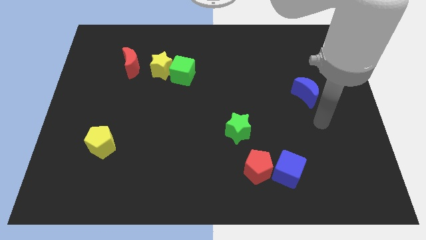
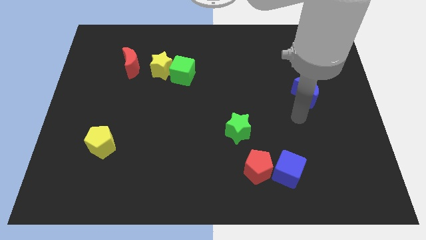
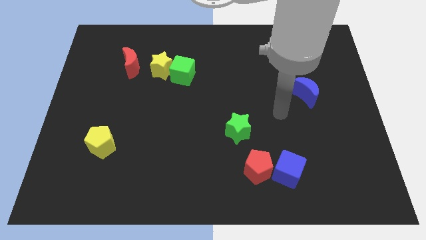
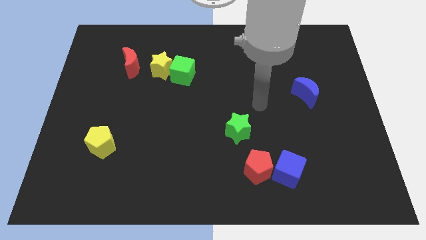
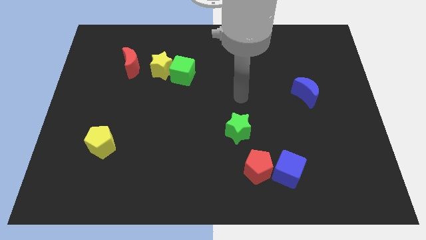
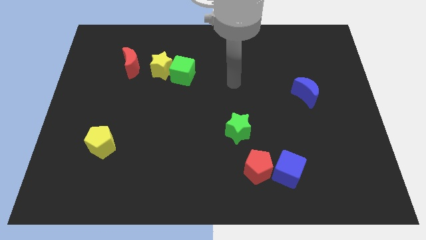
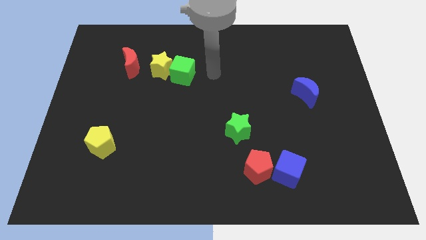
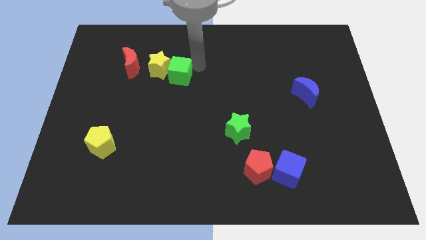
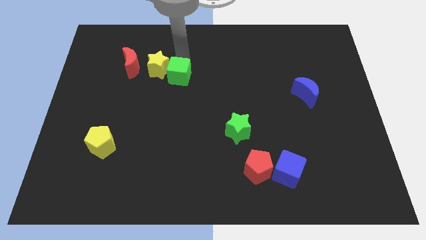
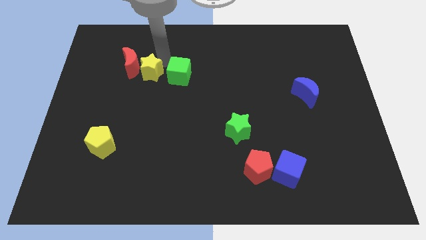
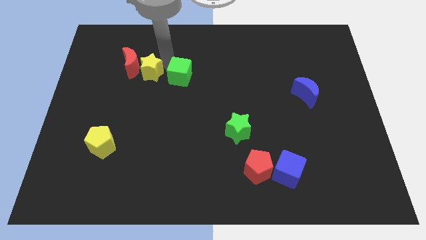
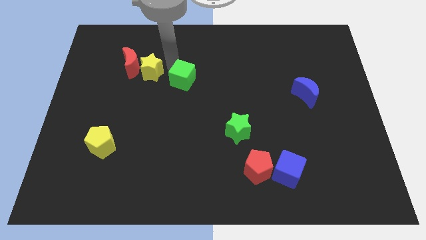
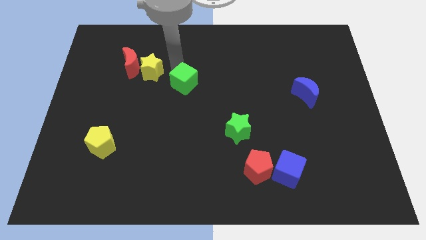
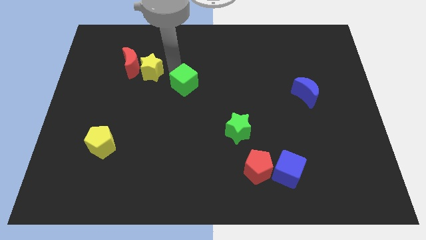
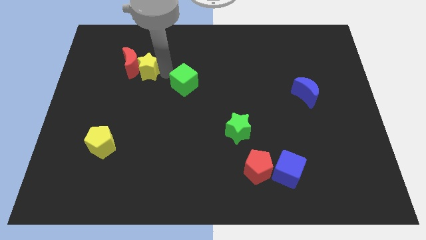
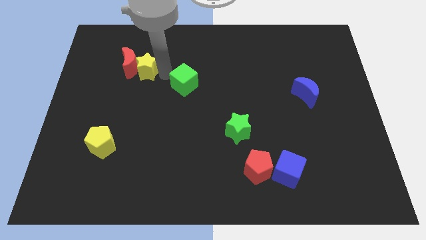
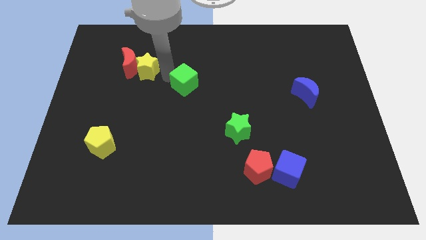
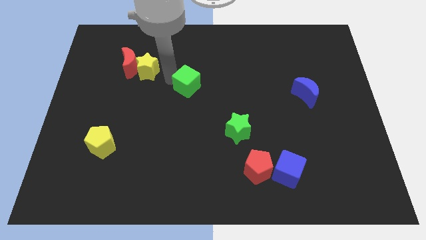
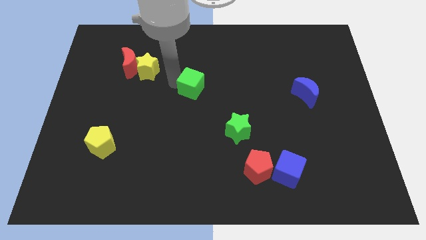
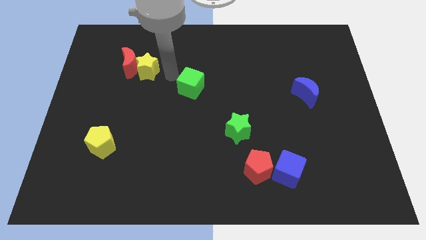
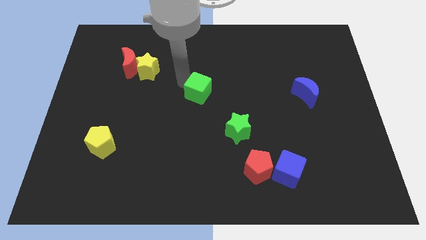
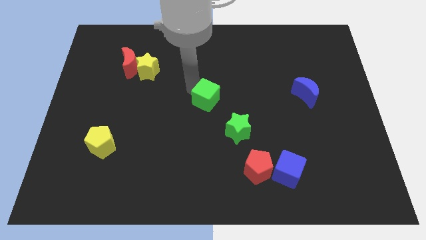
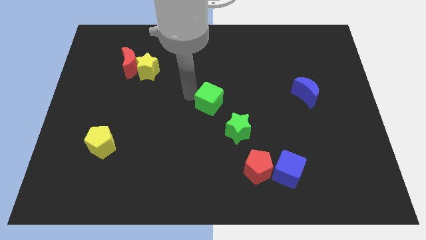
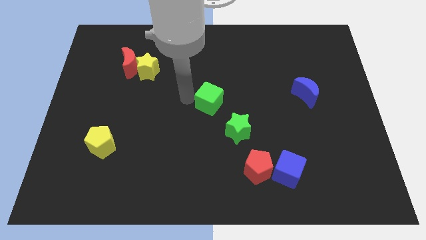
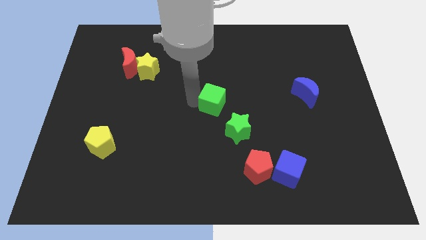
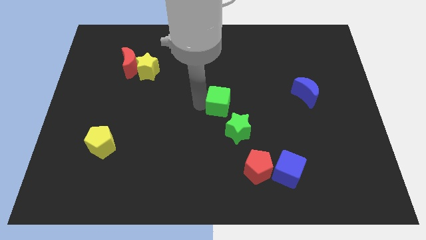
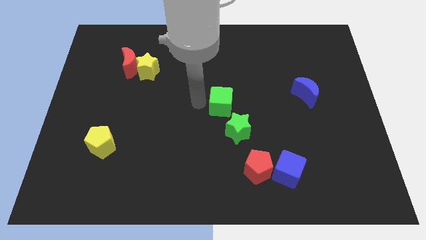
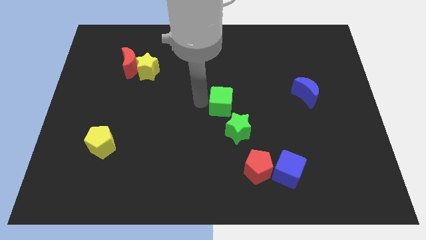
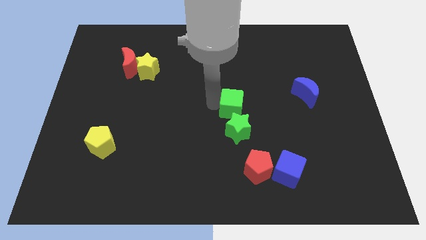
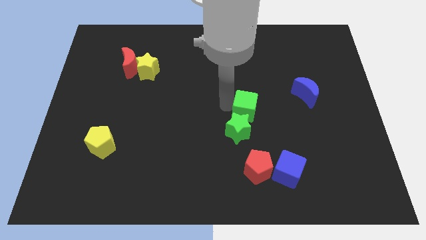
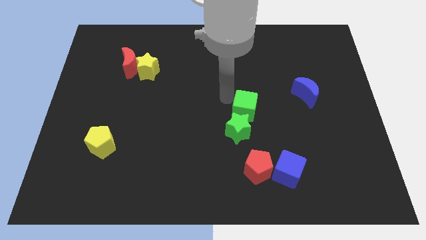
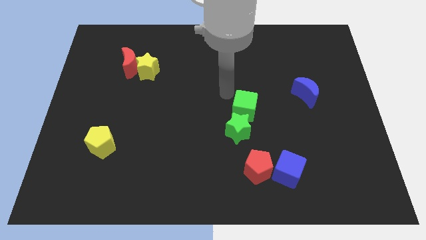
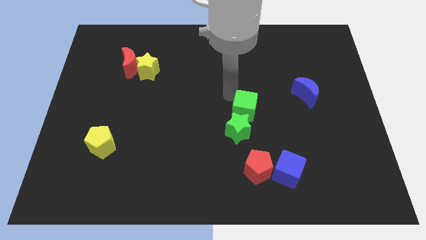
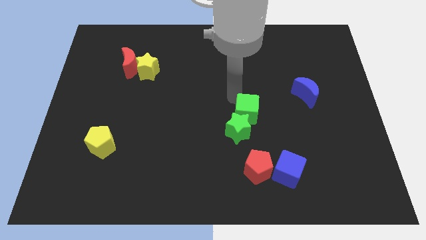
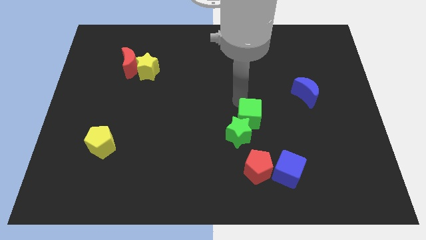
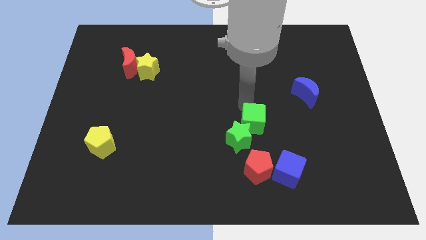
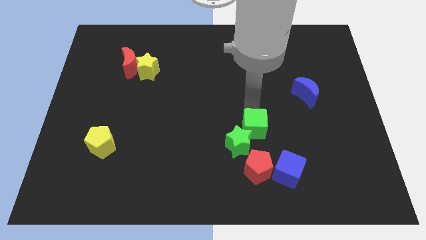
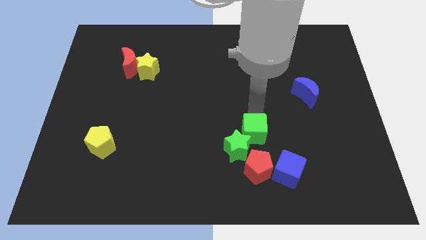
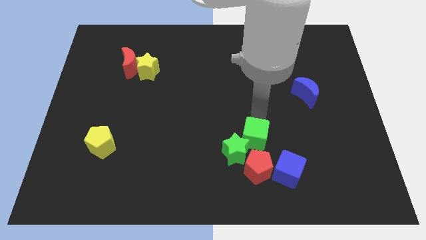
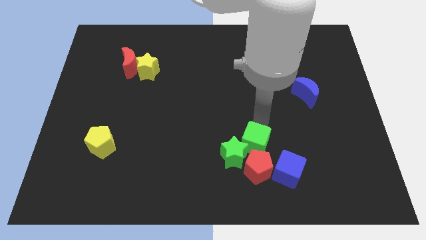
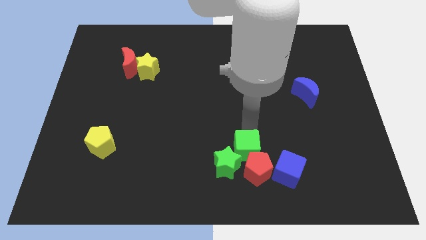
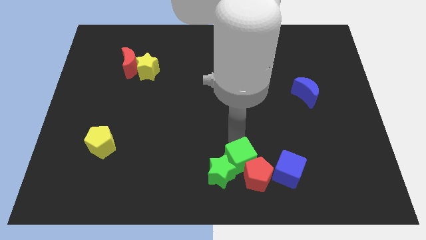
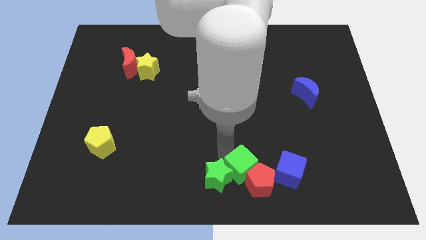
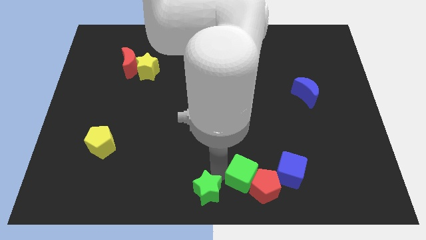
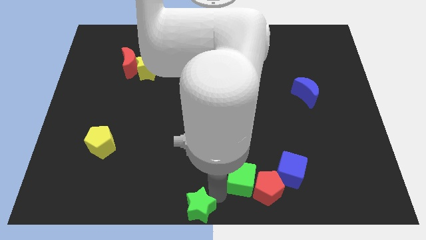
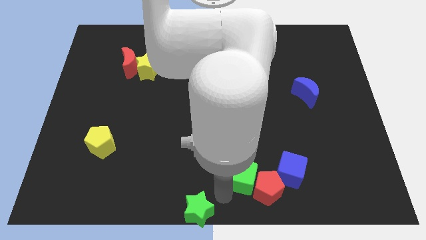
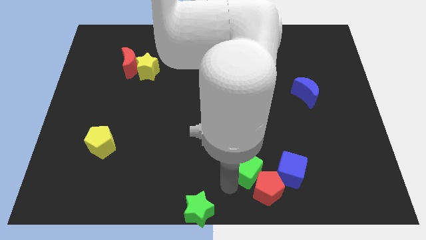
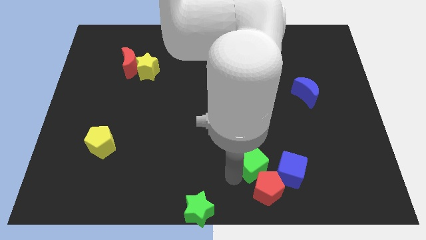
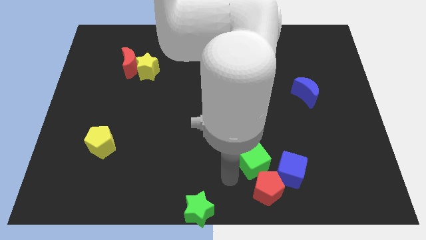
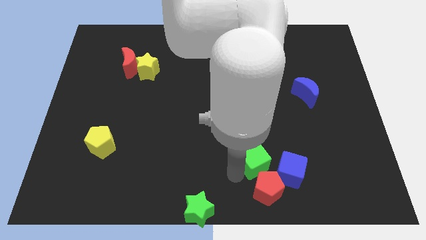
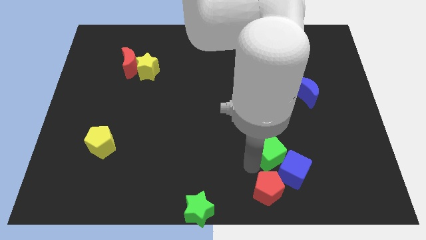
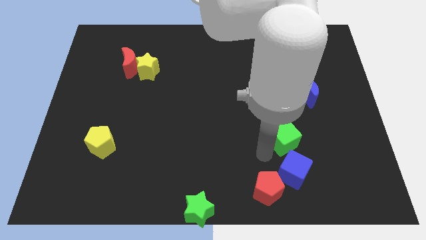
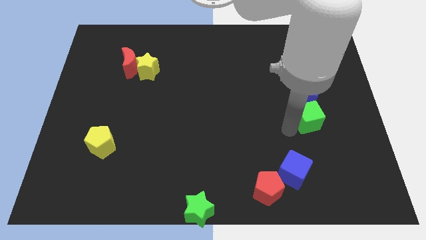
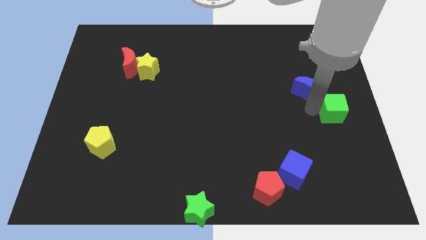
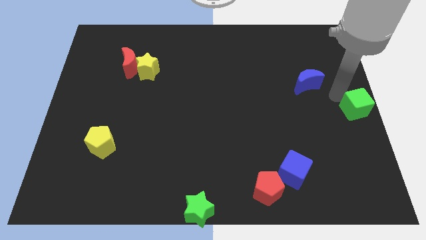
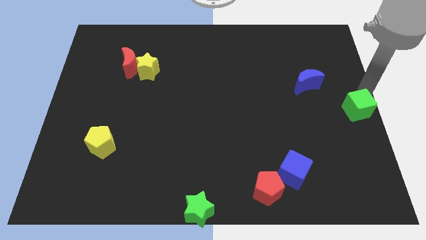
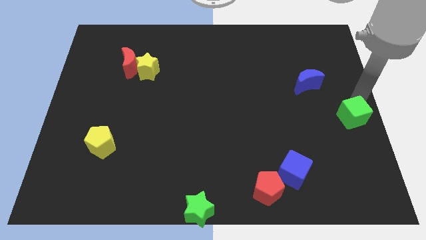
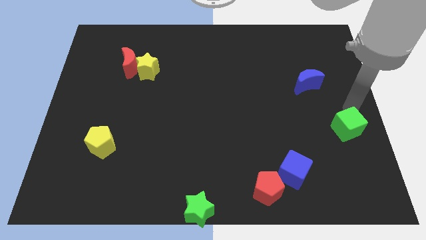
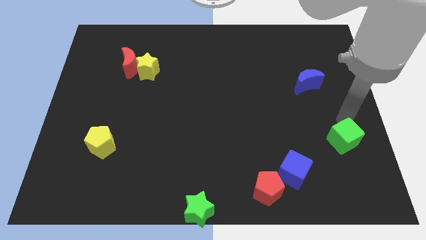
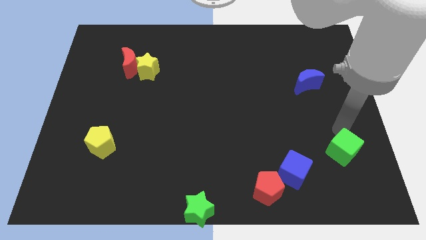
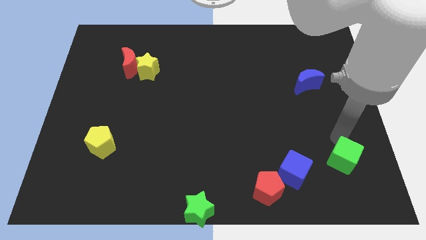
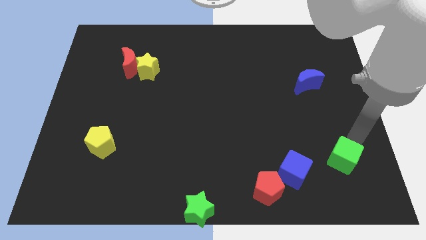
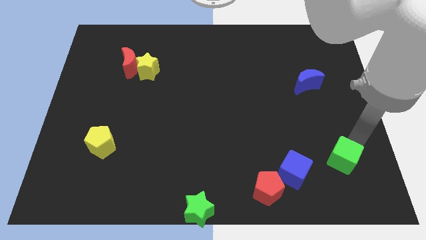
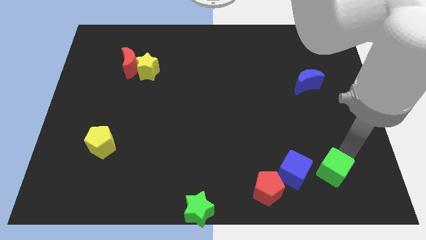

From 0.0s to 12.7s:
put the green cube to the right of the red pentagon

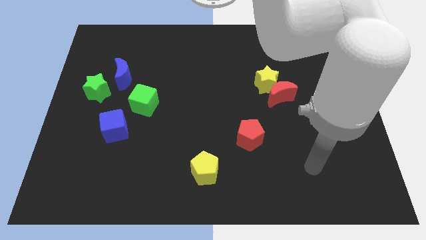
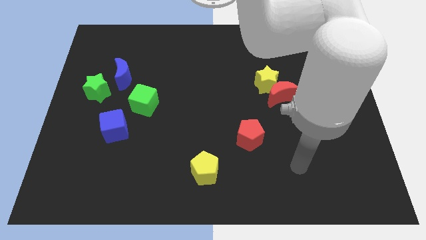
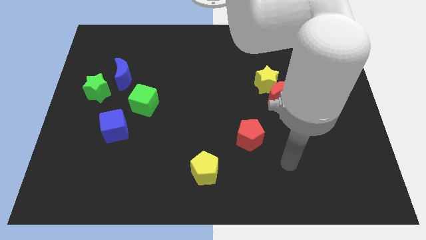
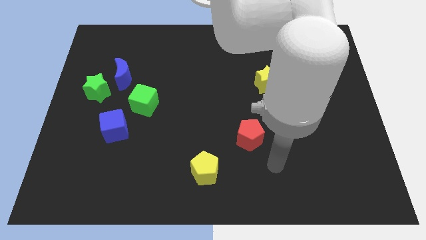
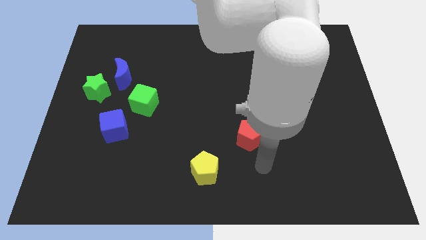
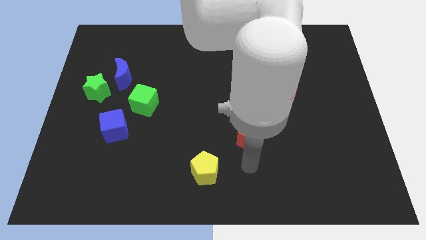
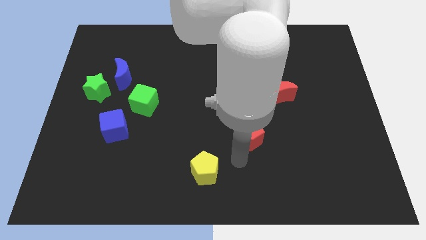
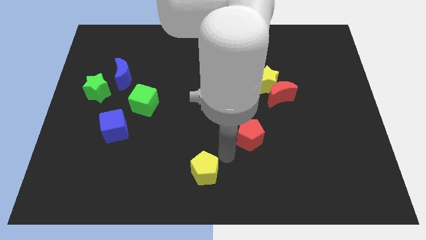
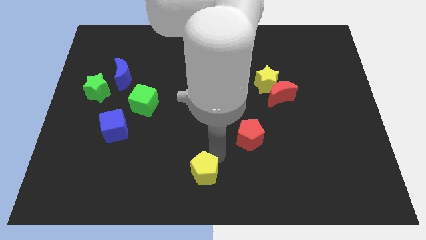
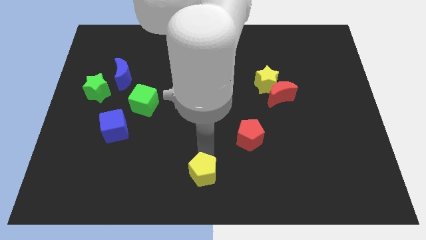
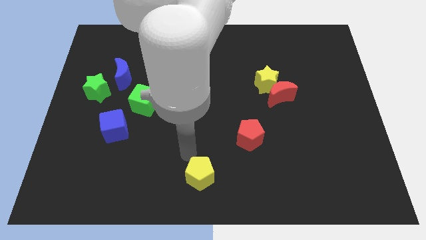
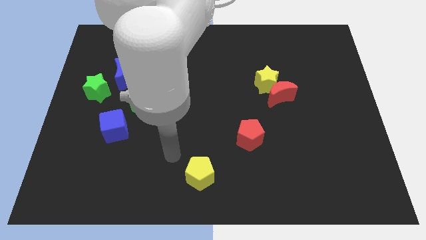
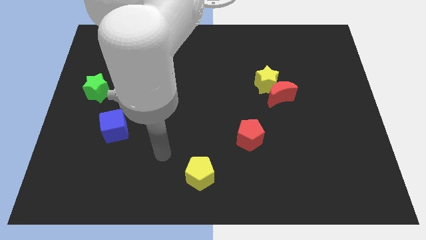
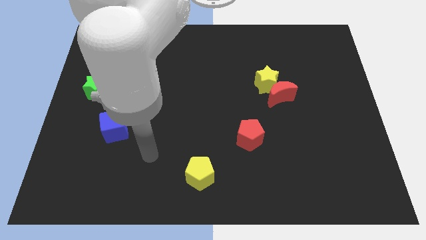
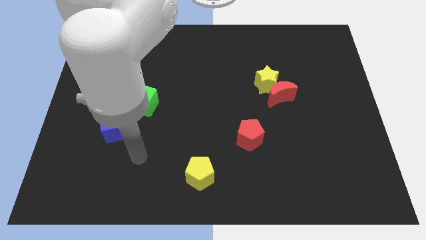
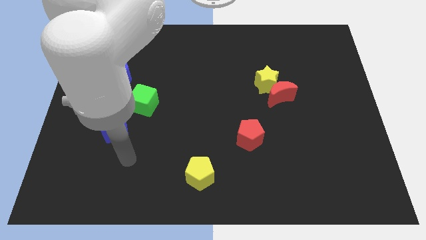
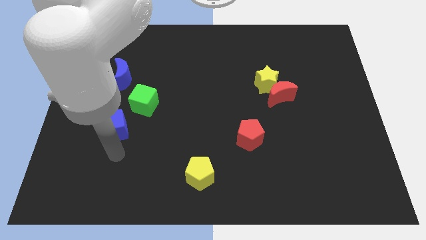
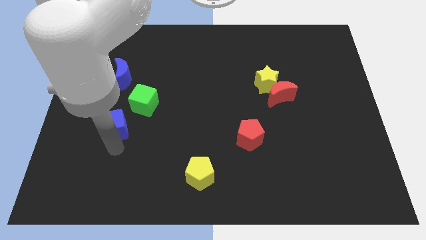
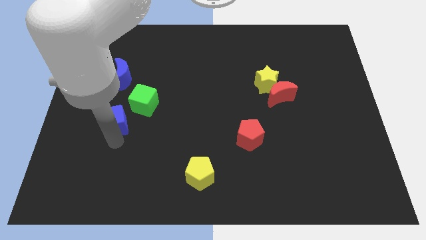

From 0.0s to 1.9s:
move the blue cube to the bottom right of the green star
